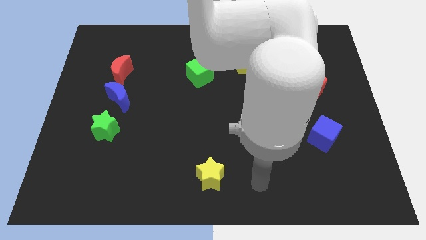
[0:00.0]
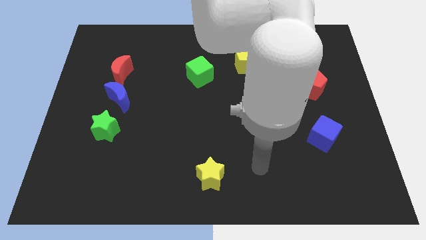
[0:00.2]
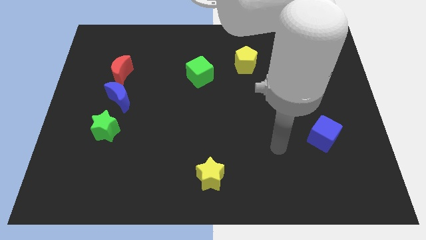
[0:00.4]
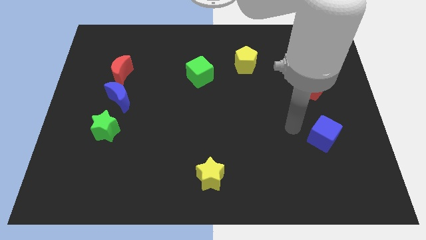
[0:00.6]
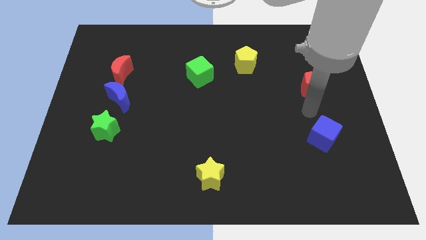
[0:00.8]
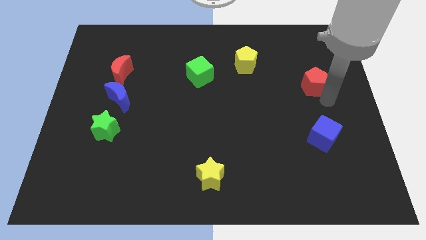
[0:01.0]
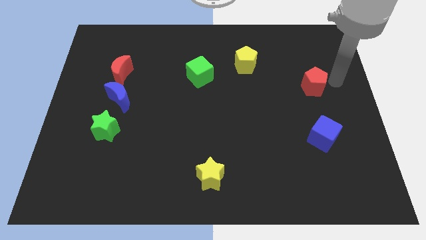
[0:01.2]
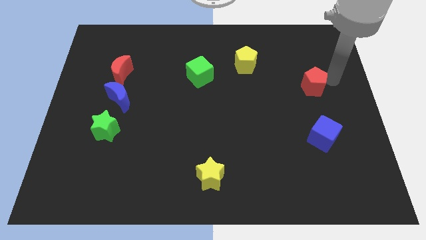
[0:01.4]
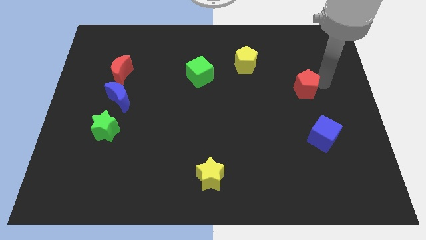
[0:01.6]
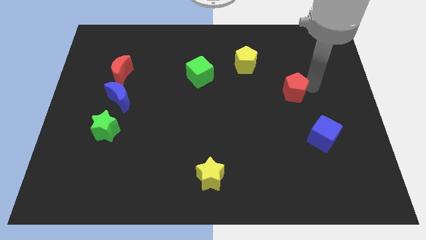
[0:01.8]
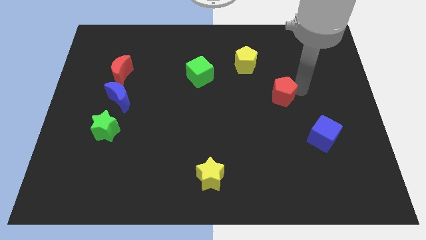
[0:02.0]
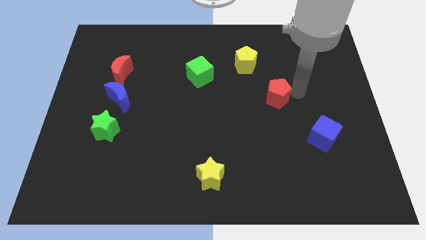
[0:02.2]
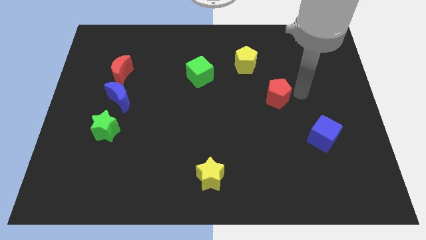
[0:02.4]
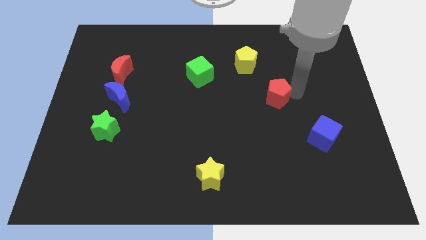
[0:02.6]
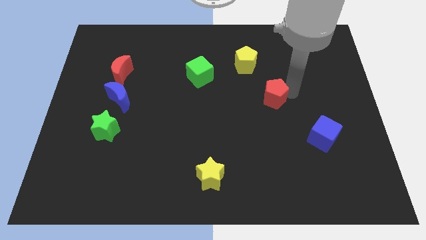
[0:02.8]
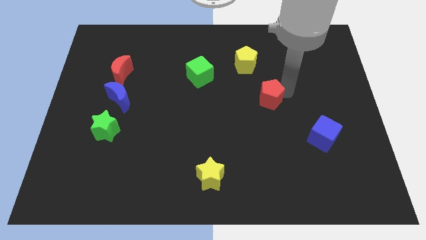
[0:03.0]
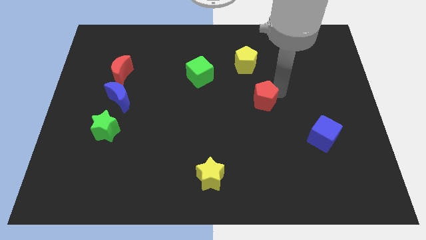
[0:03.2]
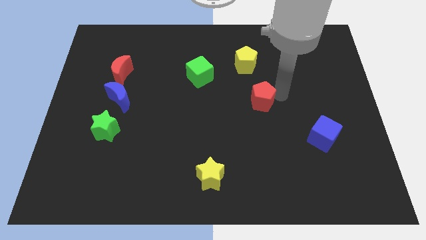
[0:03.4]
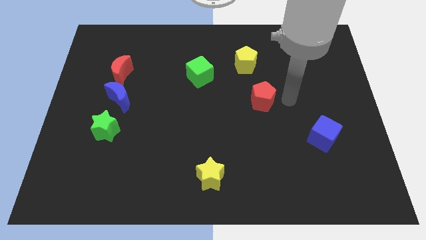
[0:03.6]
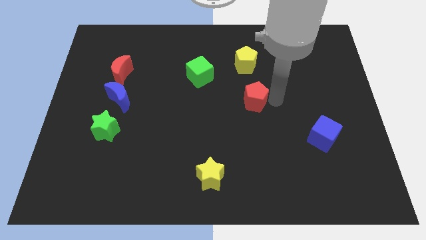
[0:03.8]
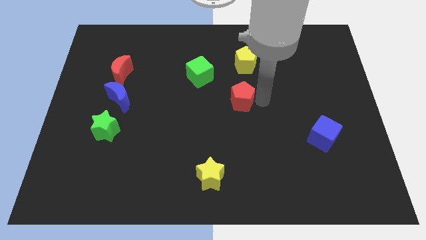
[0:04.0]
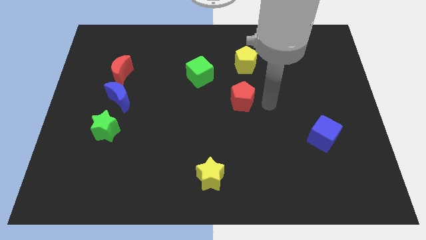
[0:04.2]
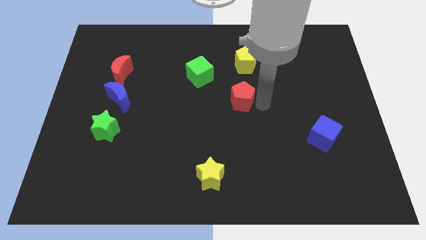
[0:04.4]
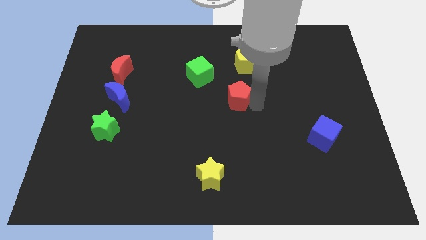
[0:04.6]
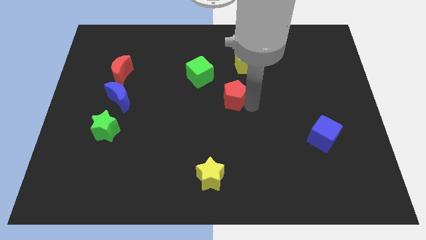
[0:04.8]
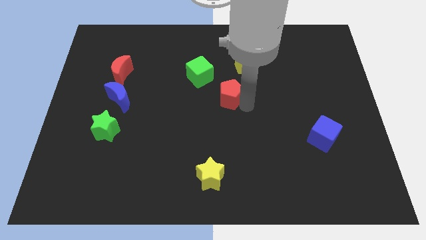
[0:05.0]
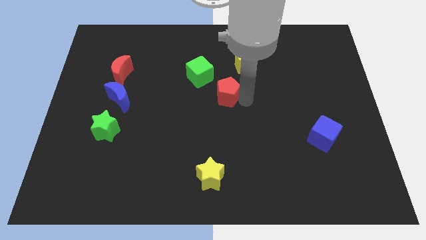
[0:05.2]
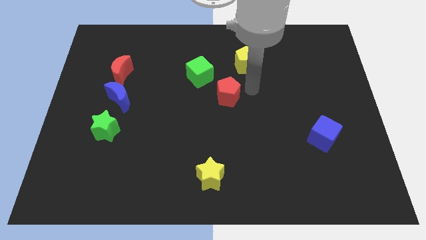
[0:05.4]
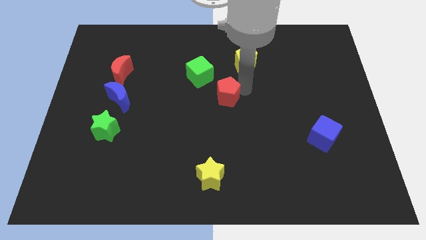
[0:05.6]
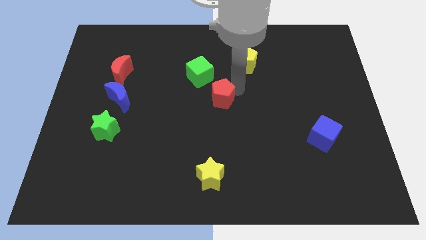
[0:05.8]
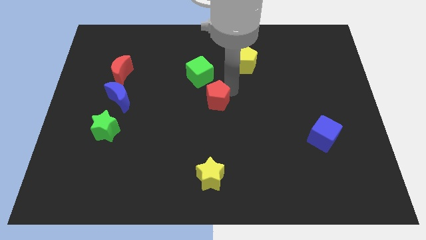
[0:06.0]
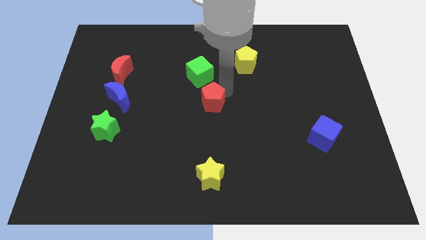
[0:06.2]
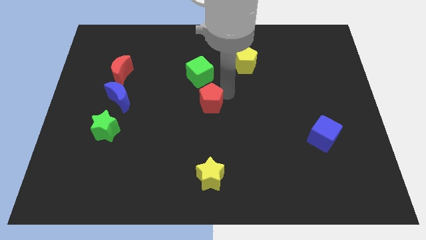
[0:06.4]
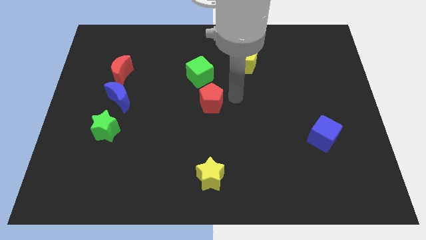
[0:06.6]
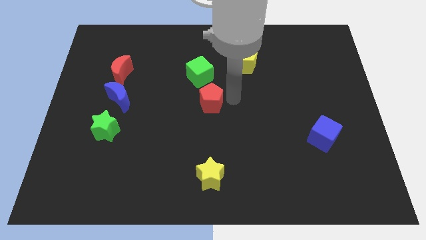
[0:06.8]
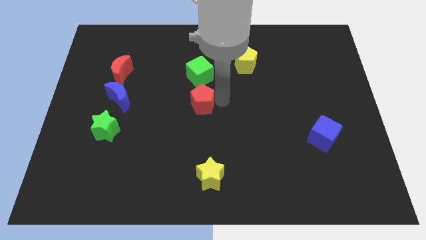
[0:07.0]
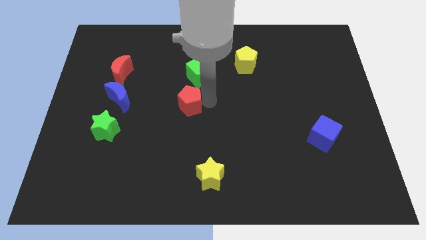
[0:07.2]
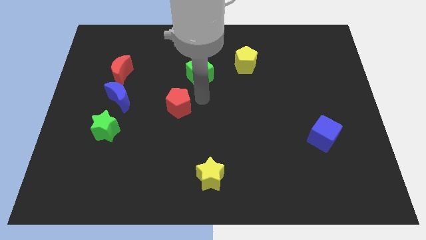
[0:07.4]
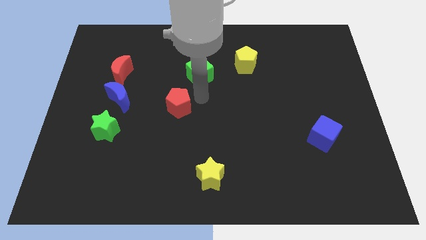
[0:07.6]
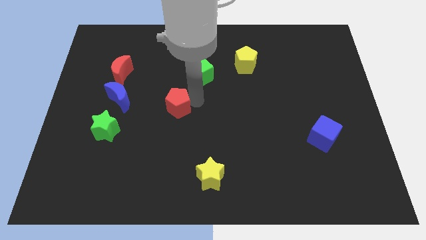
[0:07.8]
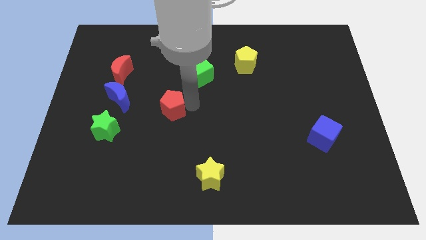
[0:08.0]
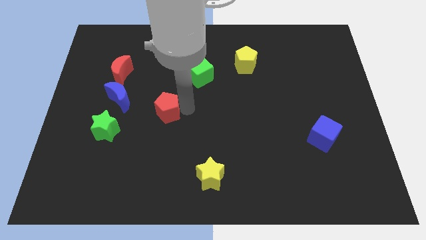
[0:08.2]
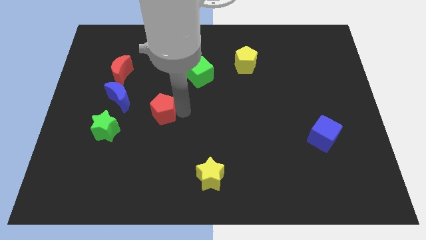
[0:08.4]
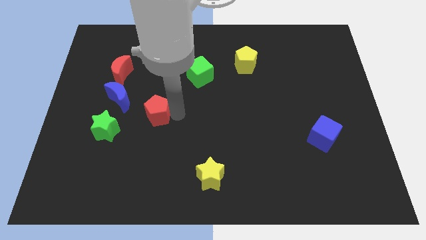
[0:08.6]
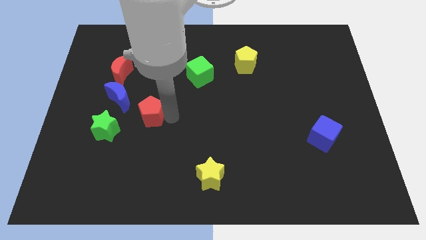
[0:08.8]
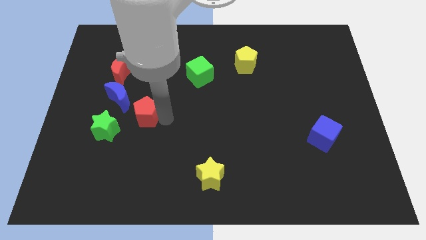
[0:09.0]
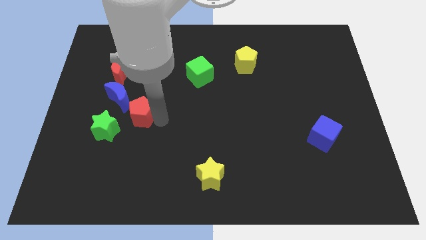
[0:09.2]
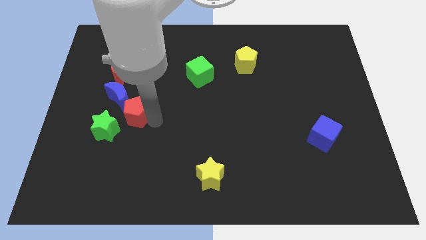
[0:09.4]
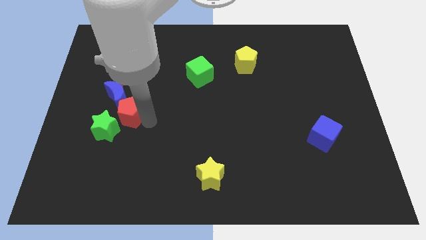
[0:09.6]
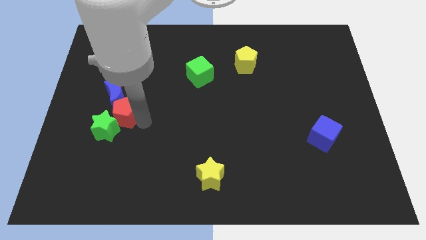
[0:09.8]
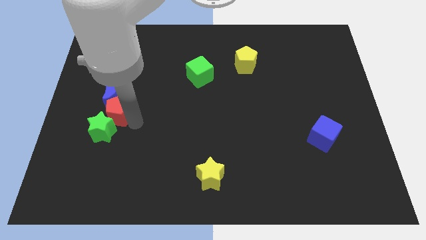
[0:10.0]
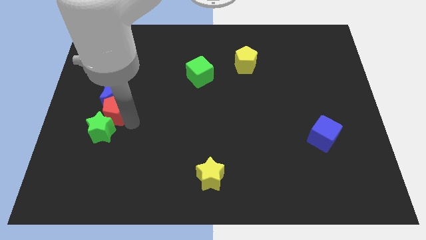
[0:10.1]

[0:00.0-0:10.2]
put the red pentagon to the bottom left side of the blue moon

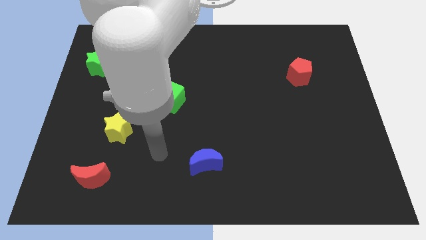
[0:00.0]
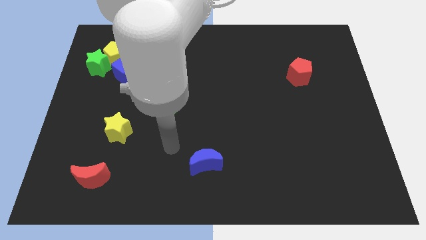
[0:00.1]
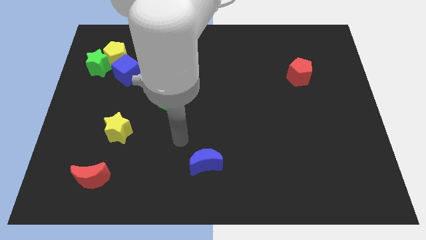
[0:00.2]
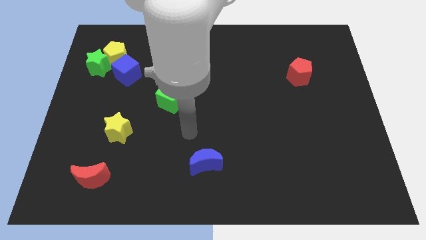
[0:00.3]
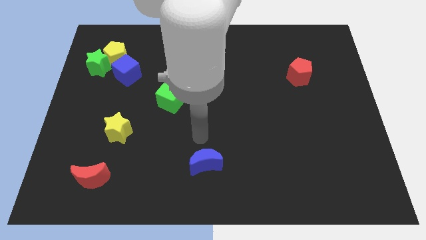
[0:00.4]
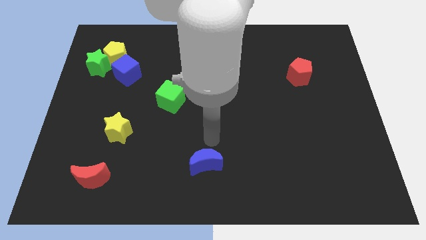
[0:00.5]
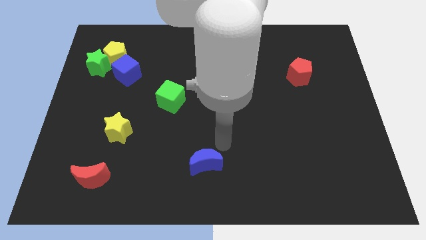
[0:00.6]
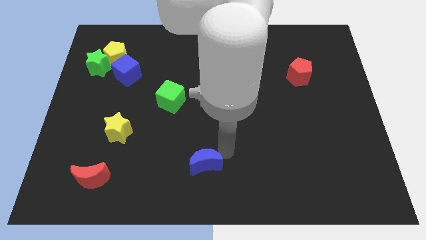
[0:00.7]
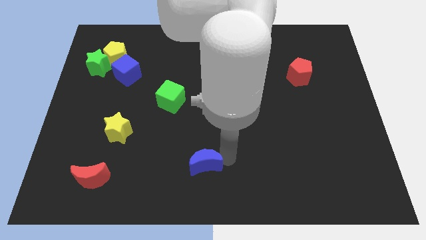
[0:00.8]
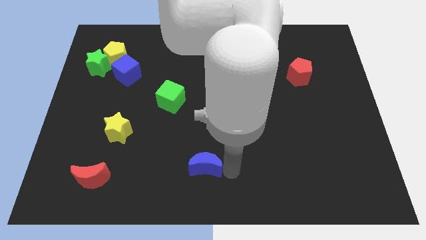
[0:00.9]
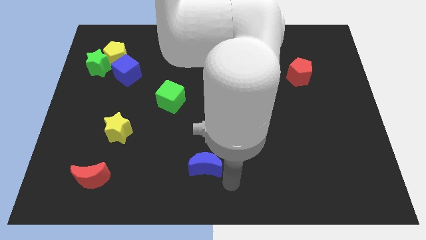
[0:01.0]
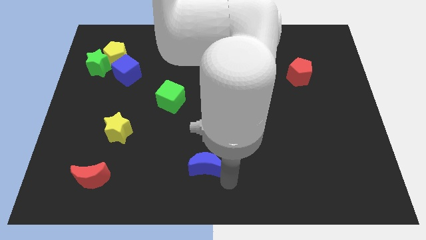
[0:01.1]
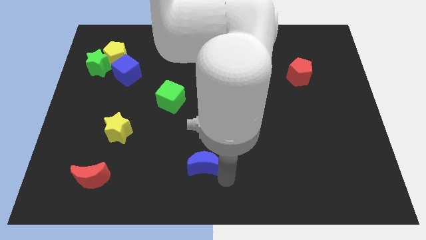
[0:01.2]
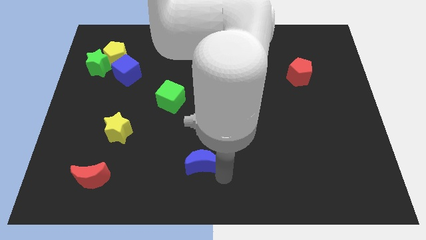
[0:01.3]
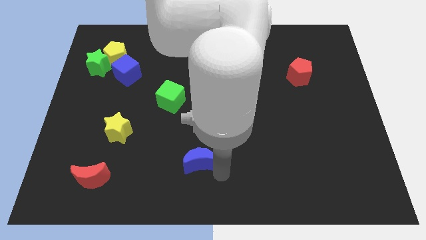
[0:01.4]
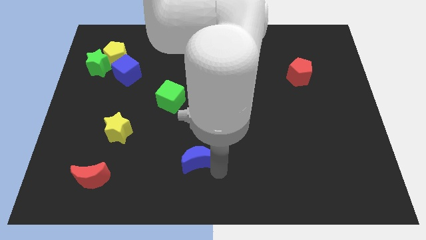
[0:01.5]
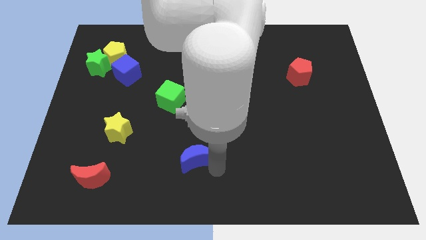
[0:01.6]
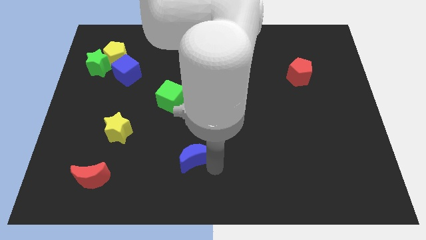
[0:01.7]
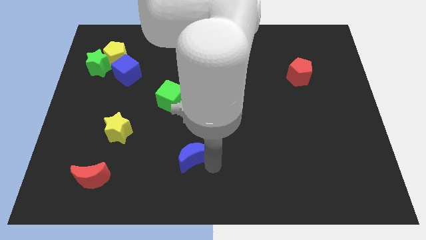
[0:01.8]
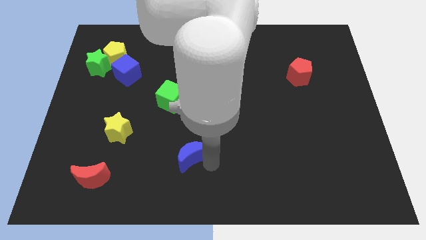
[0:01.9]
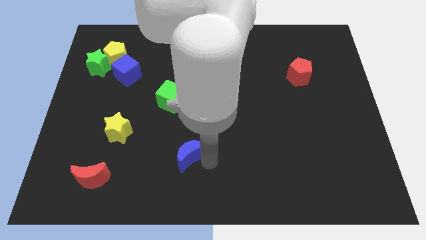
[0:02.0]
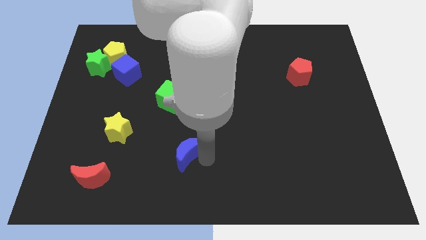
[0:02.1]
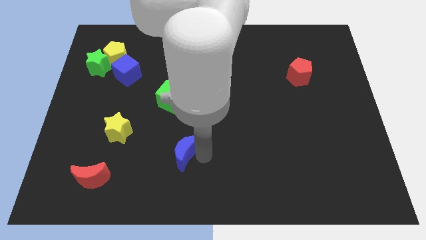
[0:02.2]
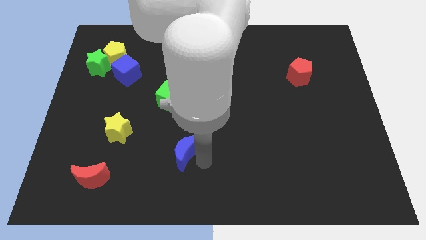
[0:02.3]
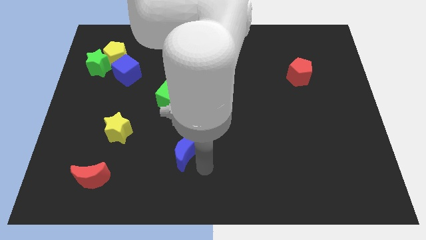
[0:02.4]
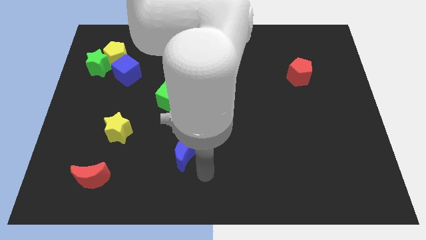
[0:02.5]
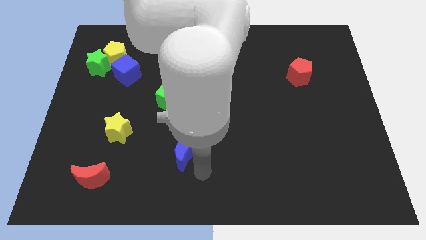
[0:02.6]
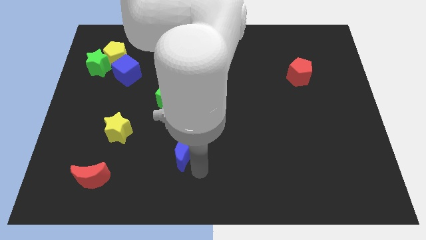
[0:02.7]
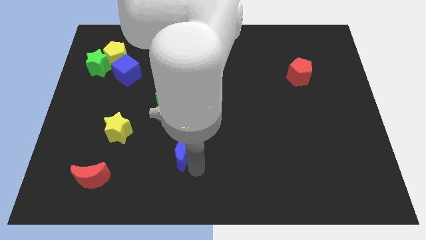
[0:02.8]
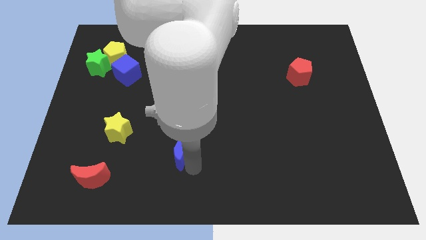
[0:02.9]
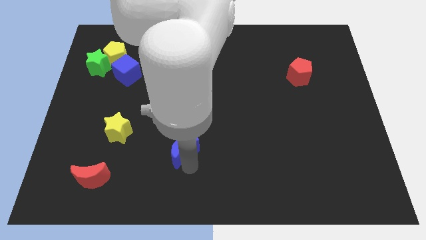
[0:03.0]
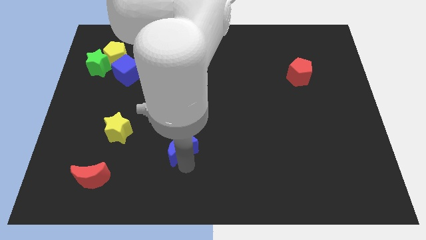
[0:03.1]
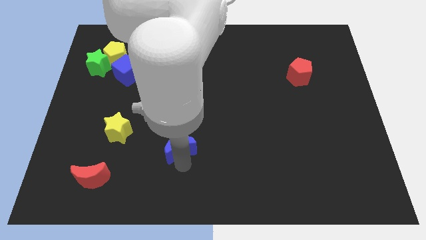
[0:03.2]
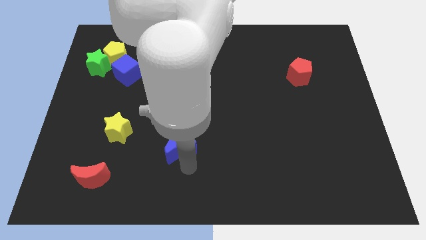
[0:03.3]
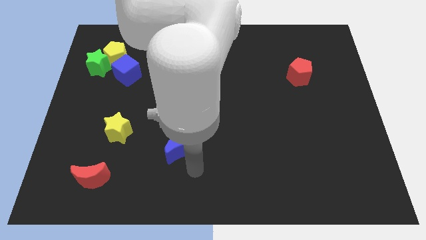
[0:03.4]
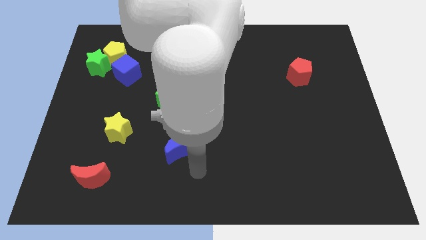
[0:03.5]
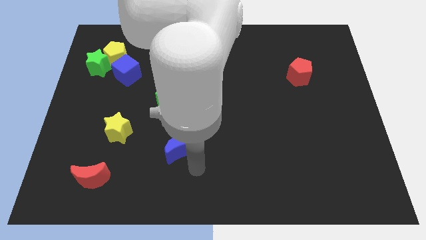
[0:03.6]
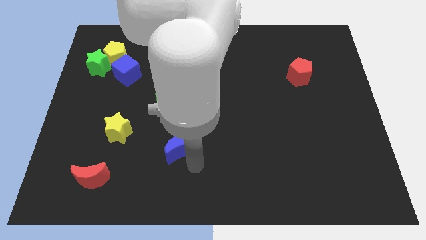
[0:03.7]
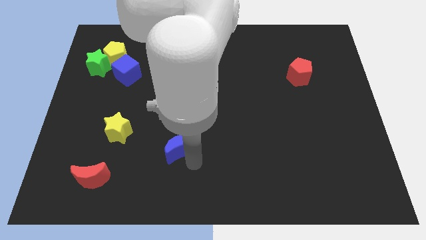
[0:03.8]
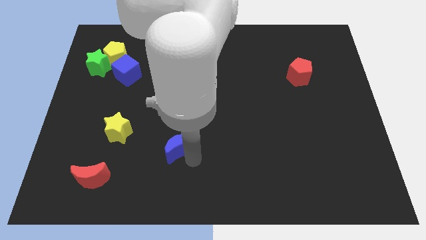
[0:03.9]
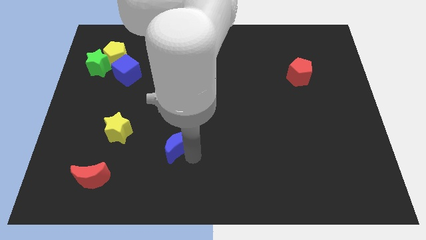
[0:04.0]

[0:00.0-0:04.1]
put the blue moon to the right side of the yellow star
